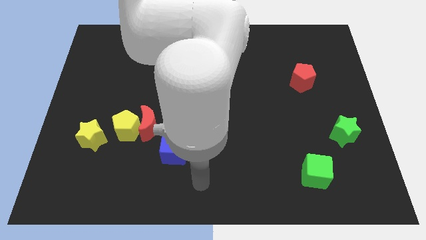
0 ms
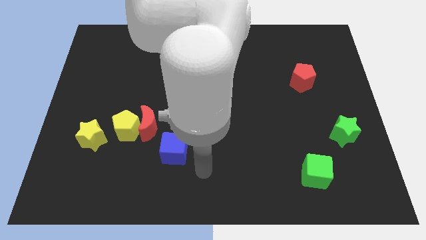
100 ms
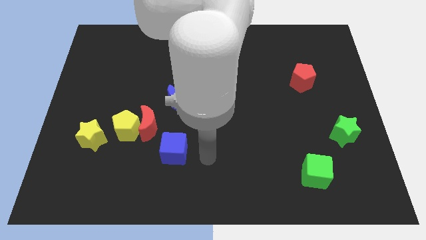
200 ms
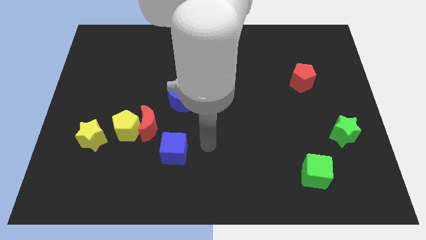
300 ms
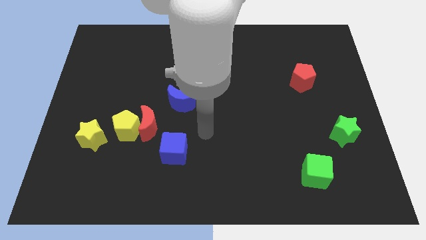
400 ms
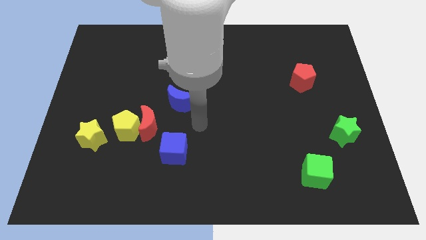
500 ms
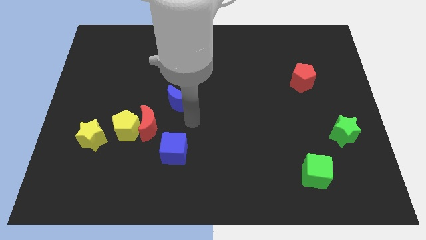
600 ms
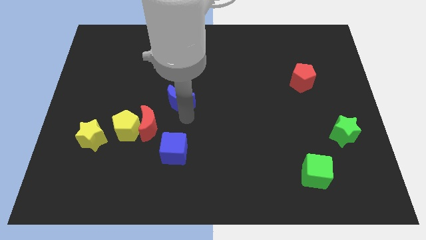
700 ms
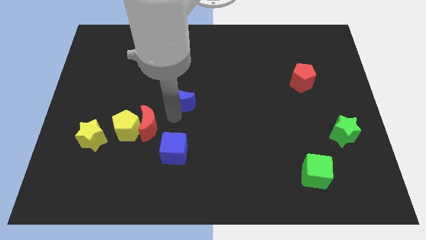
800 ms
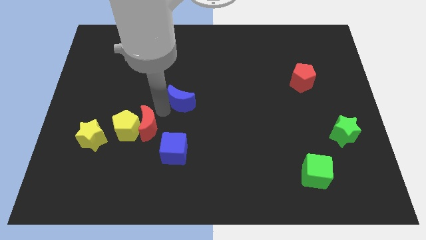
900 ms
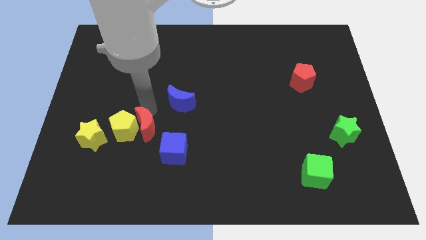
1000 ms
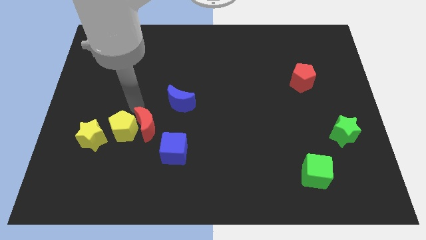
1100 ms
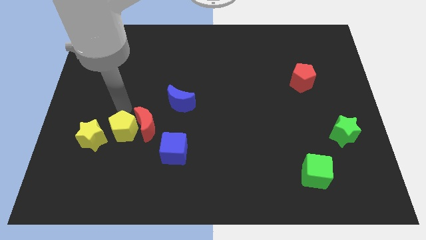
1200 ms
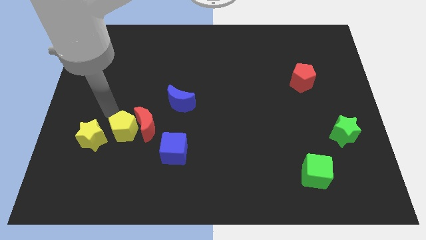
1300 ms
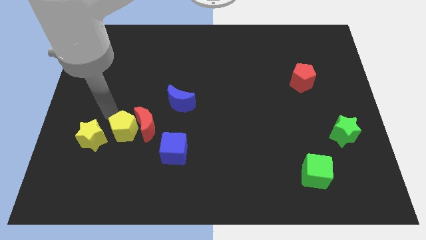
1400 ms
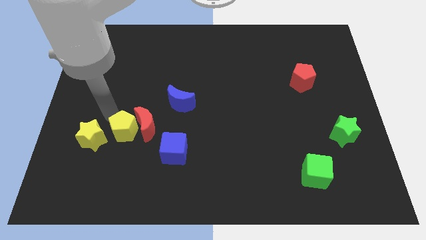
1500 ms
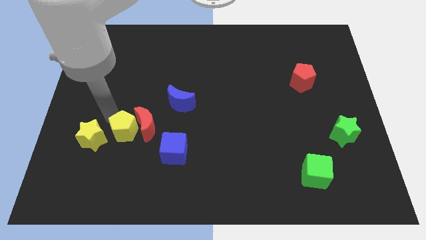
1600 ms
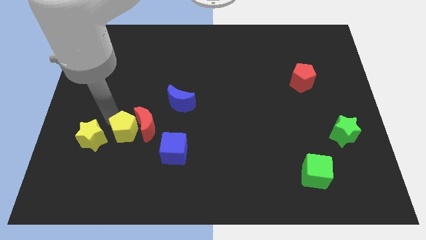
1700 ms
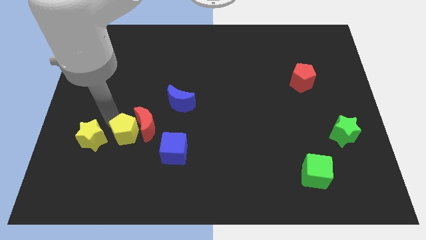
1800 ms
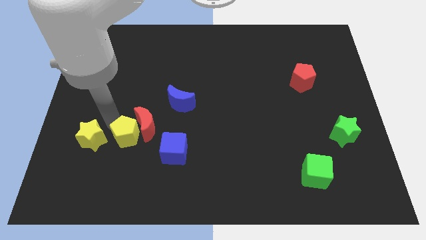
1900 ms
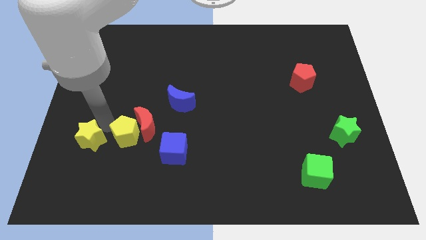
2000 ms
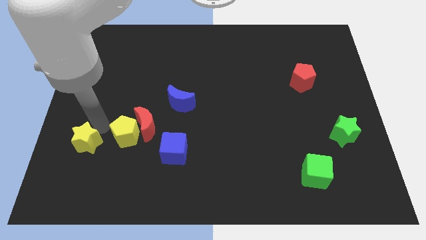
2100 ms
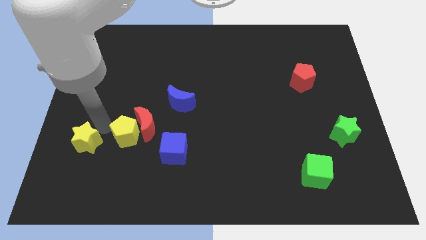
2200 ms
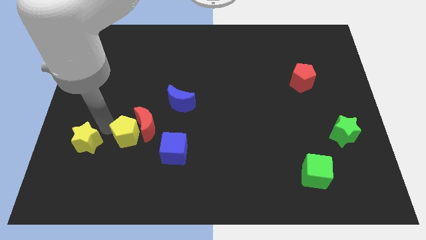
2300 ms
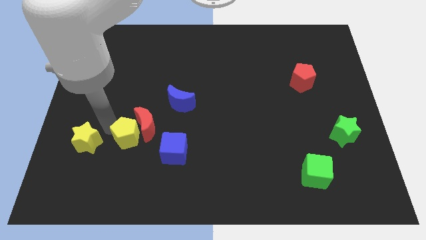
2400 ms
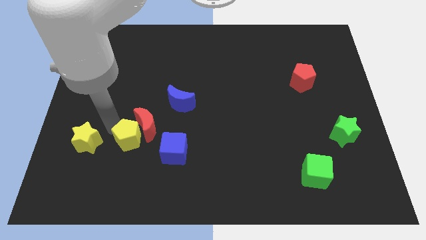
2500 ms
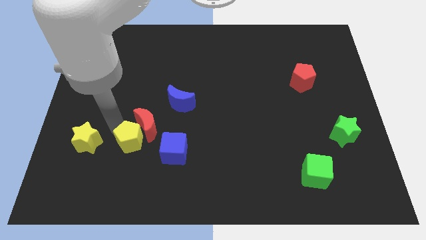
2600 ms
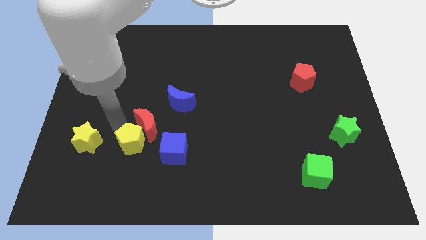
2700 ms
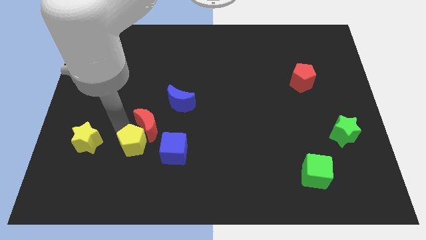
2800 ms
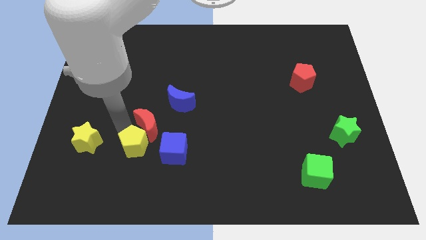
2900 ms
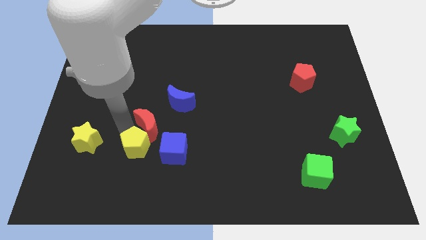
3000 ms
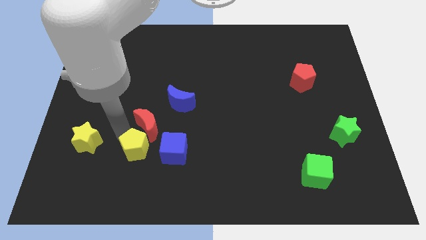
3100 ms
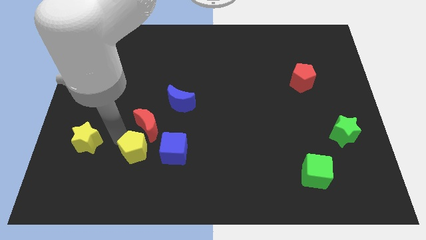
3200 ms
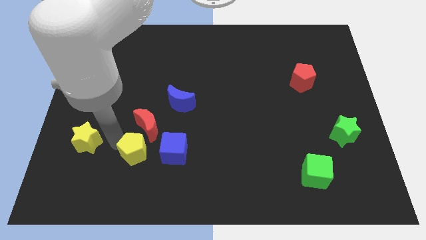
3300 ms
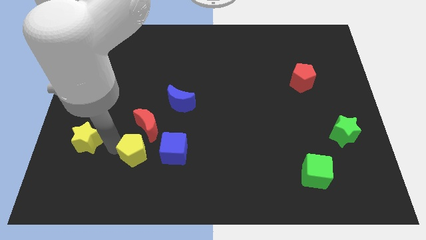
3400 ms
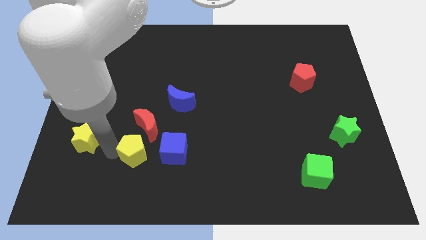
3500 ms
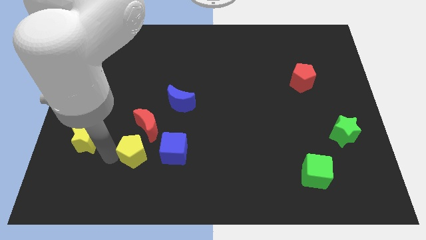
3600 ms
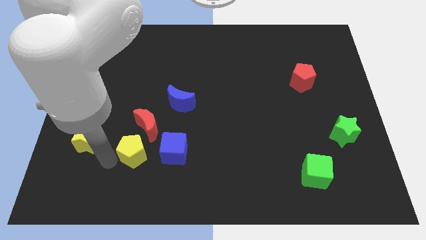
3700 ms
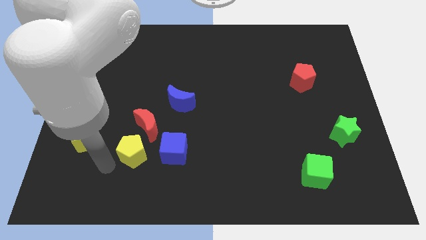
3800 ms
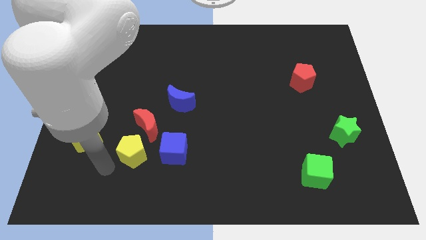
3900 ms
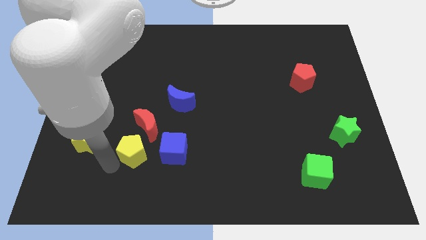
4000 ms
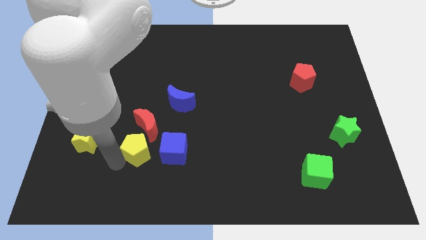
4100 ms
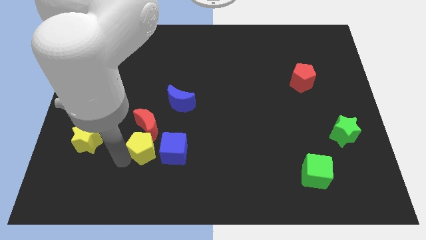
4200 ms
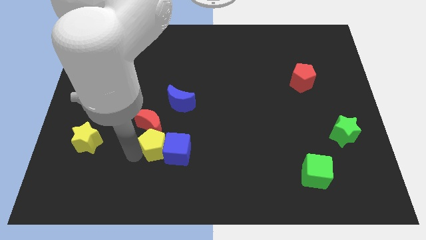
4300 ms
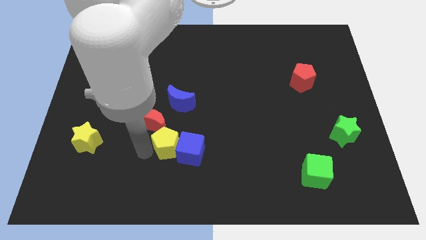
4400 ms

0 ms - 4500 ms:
push the yellow pentagon right a little

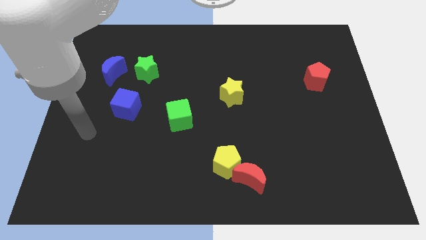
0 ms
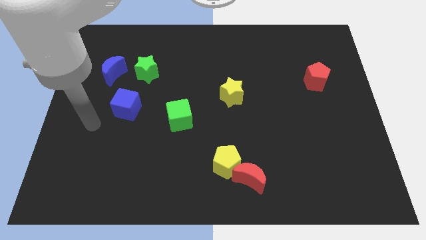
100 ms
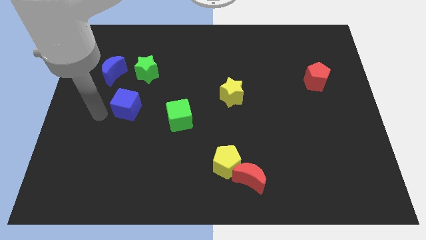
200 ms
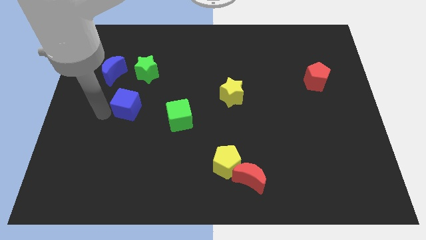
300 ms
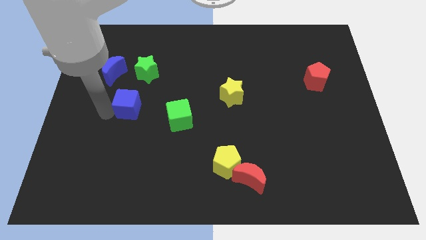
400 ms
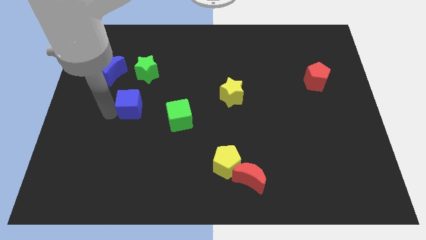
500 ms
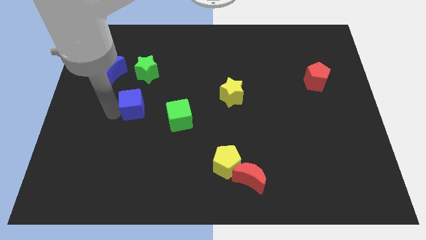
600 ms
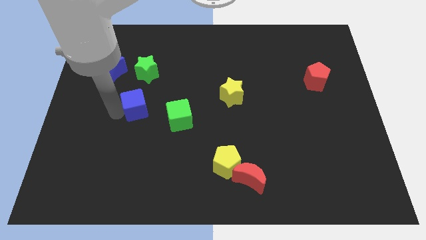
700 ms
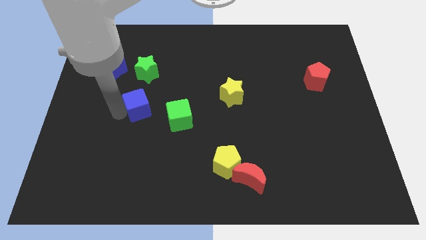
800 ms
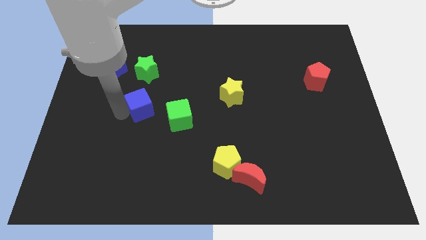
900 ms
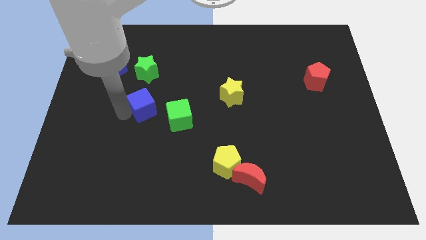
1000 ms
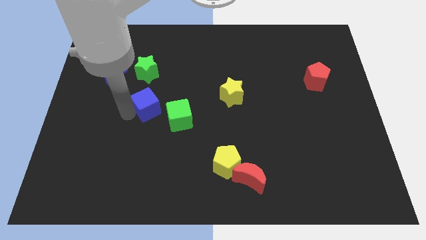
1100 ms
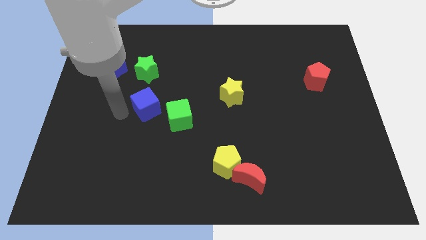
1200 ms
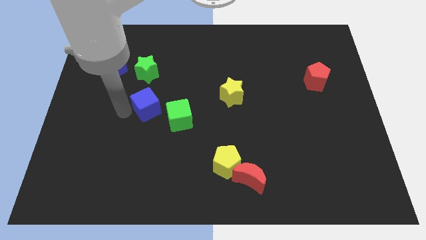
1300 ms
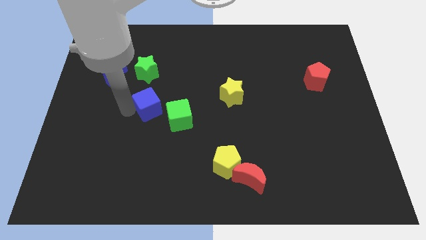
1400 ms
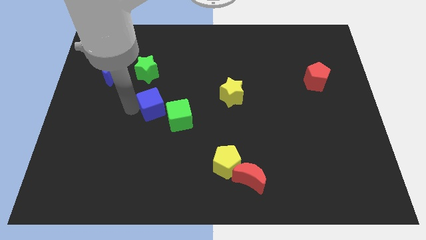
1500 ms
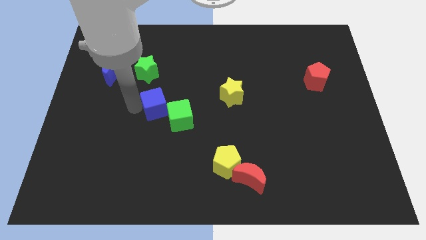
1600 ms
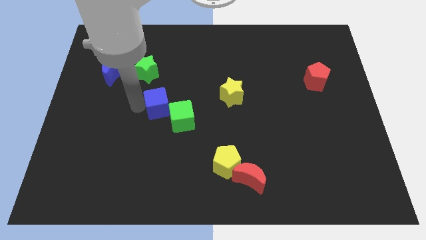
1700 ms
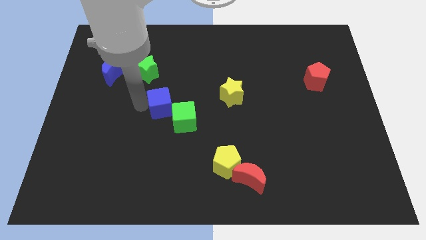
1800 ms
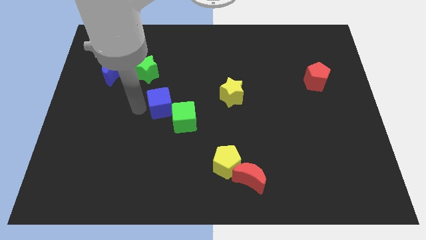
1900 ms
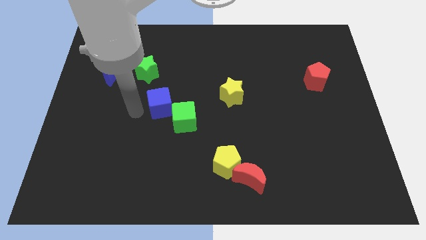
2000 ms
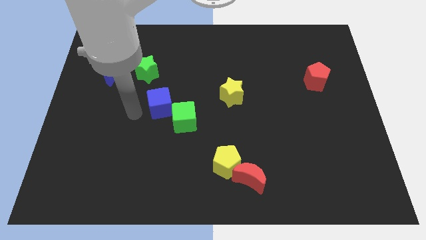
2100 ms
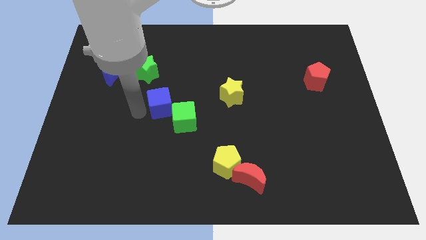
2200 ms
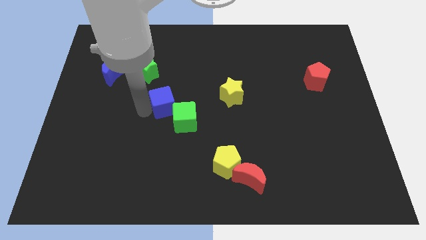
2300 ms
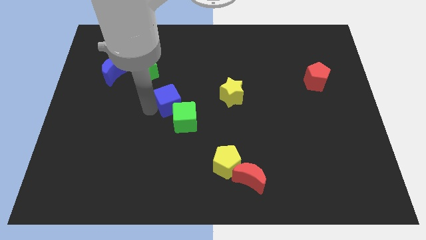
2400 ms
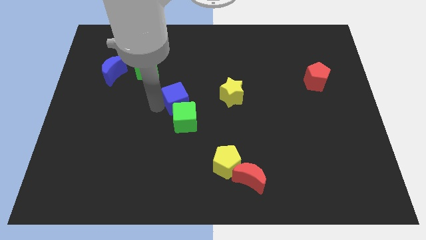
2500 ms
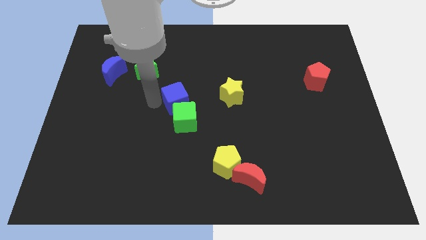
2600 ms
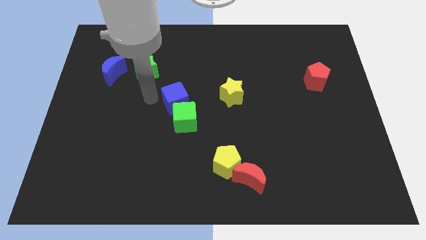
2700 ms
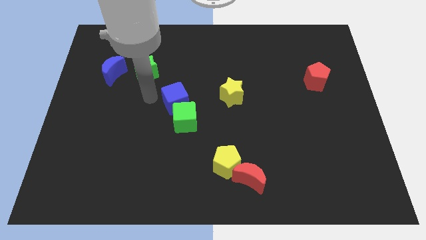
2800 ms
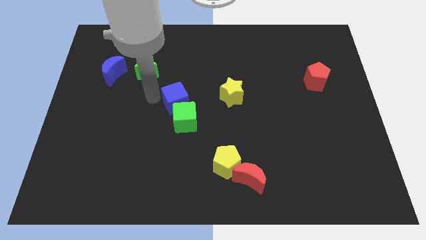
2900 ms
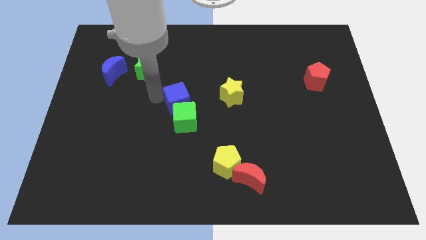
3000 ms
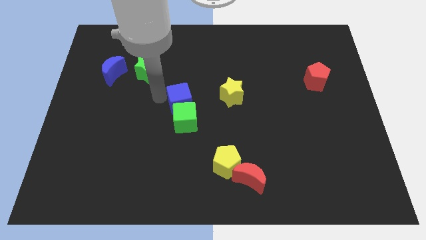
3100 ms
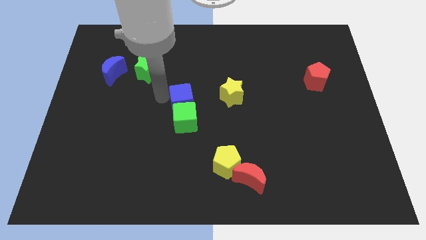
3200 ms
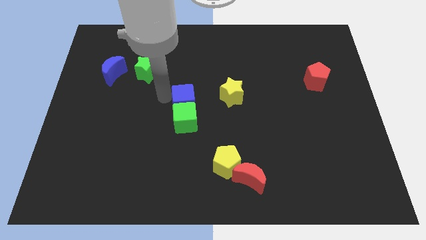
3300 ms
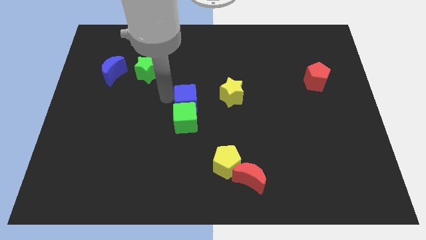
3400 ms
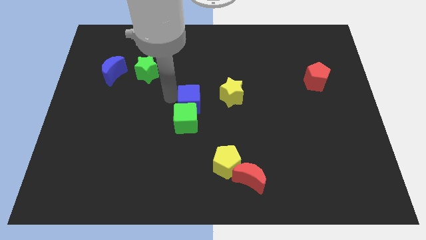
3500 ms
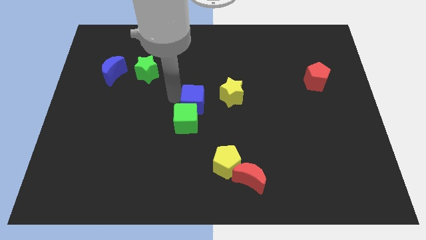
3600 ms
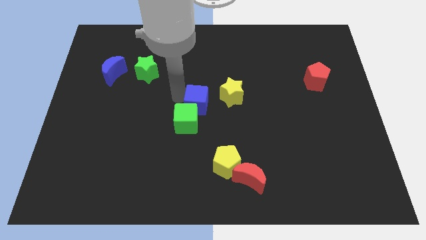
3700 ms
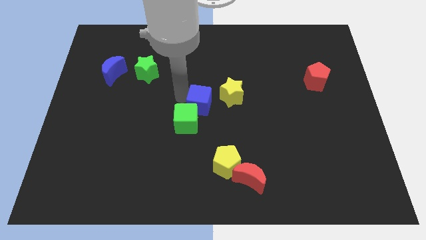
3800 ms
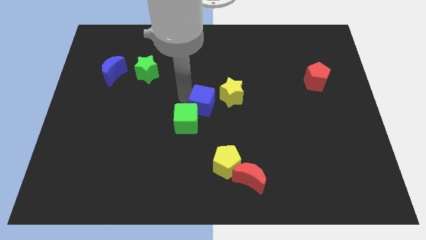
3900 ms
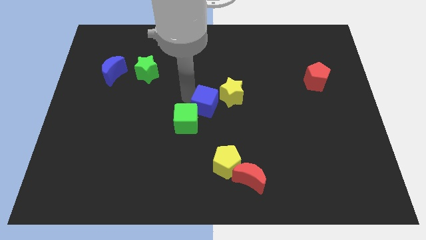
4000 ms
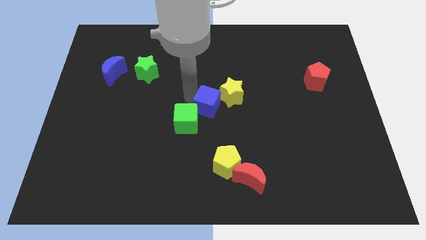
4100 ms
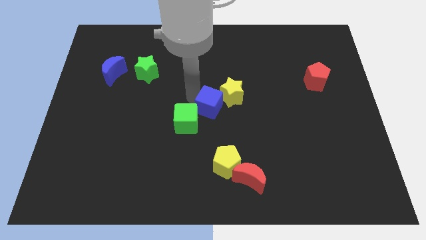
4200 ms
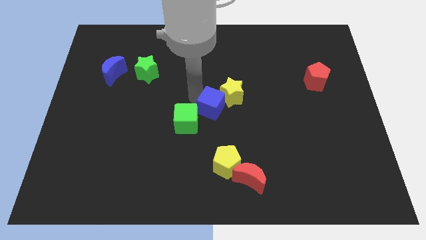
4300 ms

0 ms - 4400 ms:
push the blue cube right
